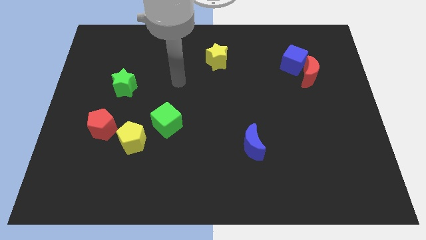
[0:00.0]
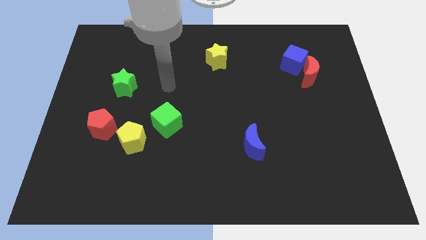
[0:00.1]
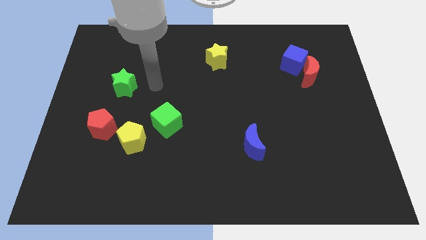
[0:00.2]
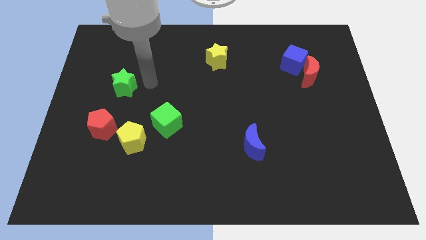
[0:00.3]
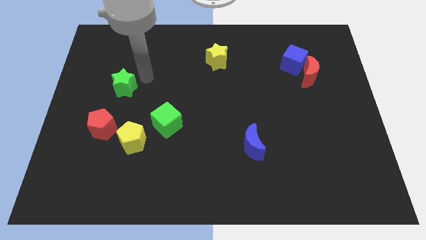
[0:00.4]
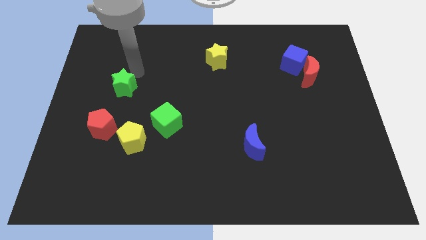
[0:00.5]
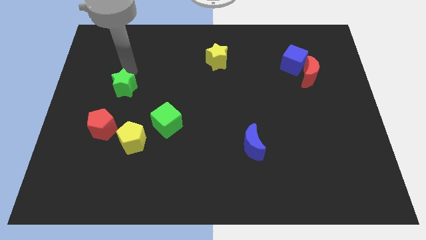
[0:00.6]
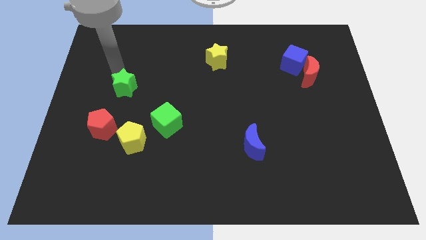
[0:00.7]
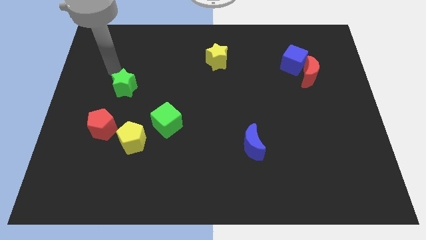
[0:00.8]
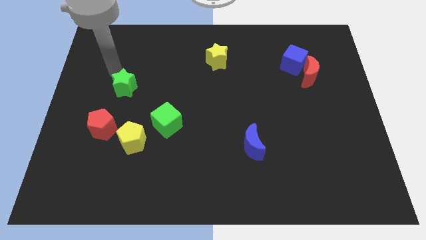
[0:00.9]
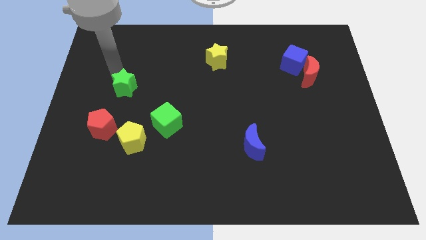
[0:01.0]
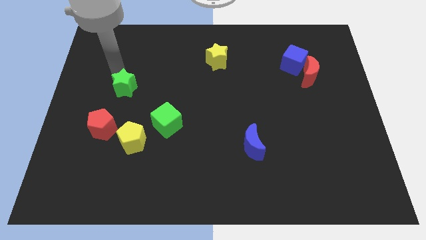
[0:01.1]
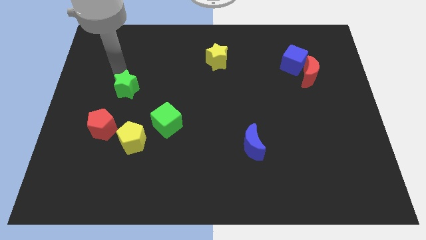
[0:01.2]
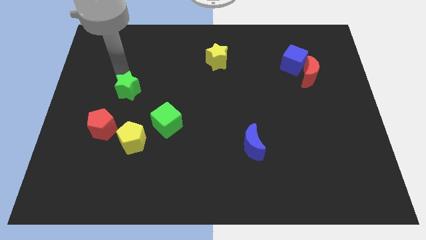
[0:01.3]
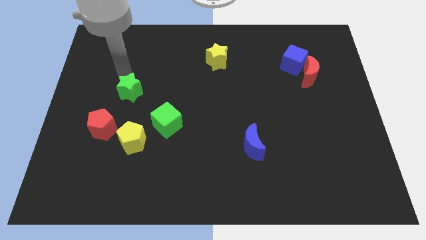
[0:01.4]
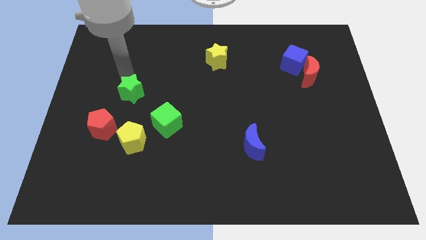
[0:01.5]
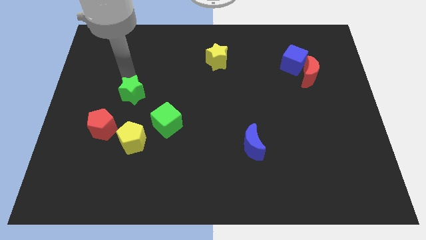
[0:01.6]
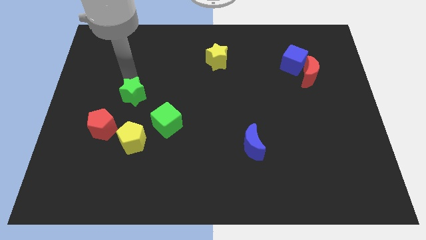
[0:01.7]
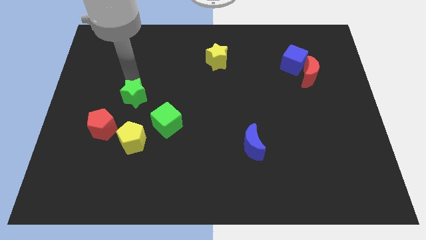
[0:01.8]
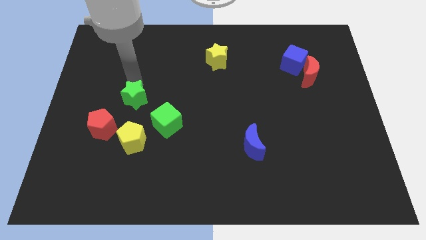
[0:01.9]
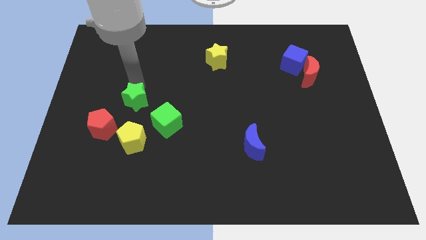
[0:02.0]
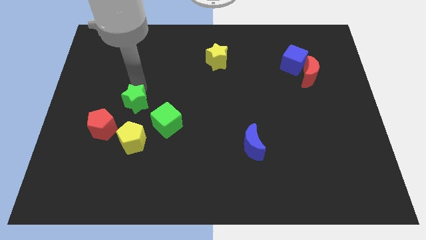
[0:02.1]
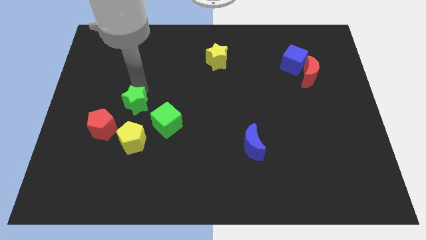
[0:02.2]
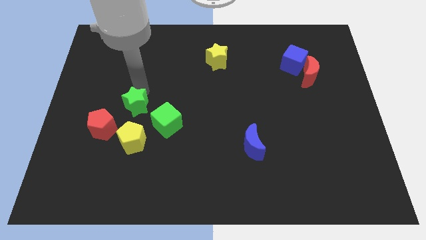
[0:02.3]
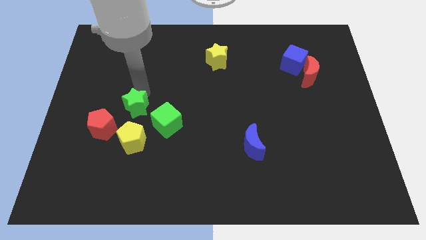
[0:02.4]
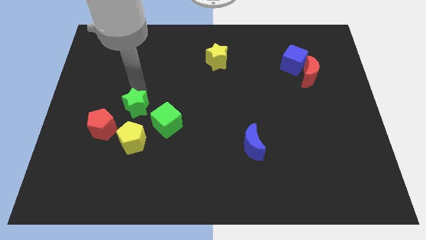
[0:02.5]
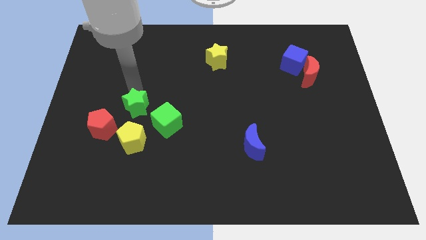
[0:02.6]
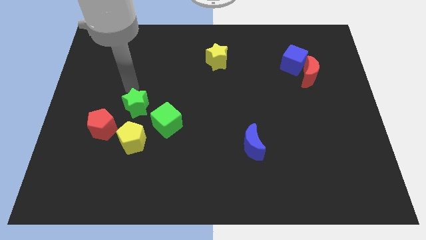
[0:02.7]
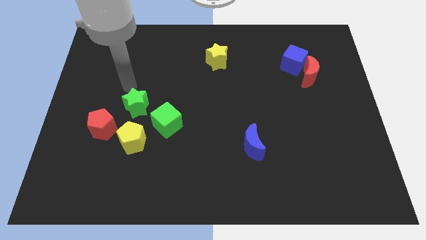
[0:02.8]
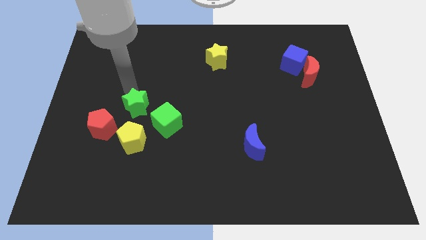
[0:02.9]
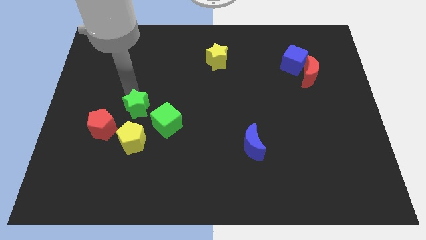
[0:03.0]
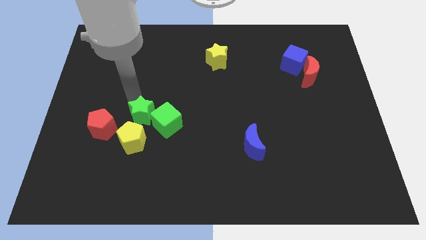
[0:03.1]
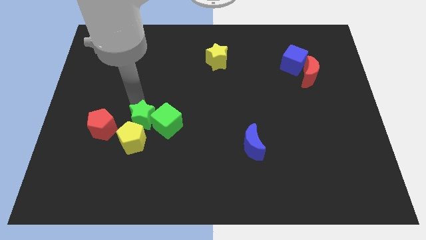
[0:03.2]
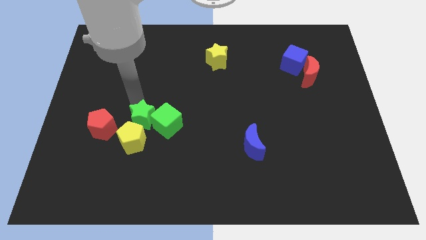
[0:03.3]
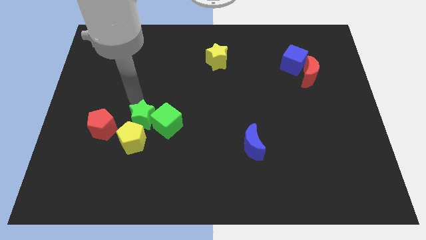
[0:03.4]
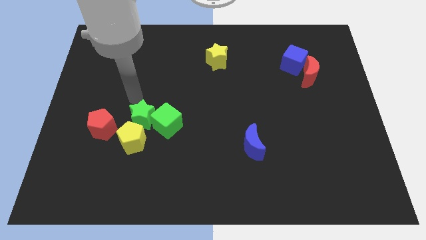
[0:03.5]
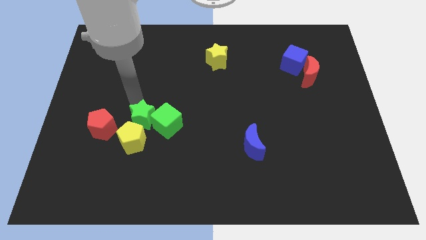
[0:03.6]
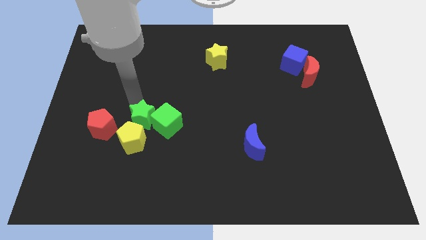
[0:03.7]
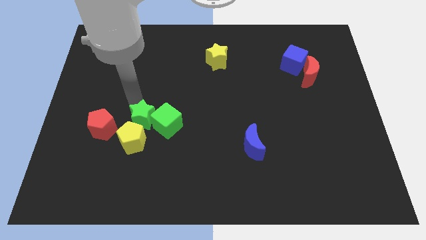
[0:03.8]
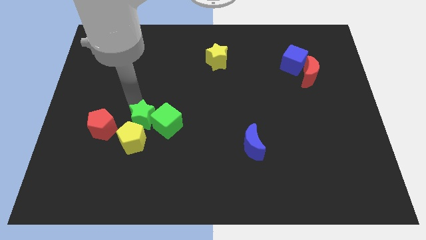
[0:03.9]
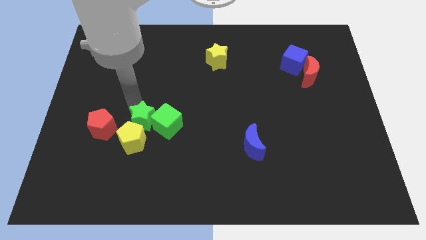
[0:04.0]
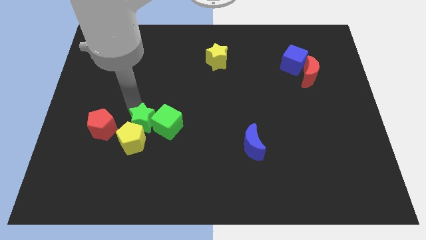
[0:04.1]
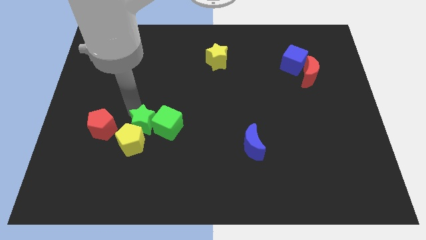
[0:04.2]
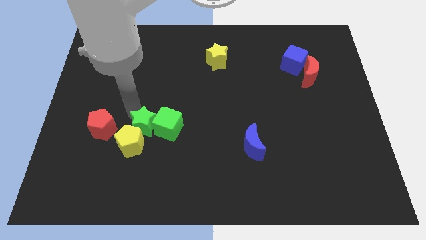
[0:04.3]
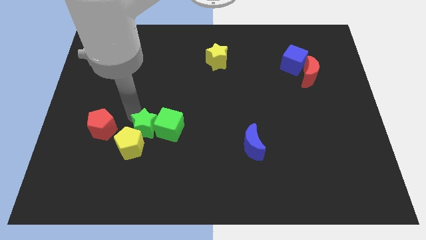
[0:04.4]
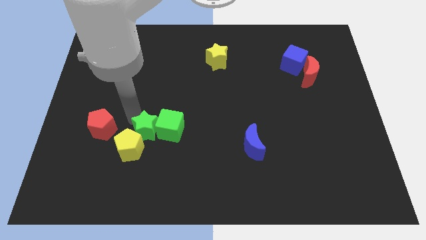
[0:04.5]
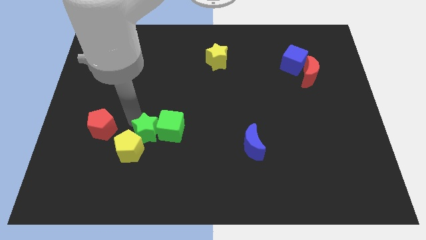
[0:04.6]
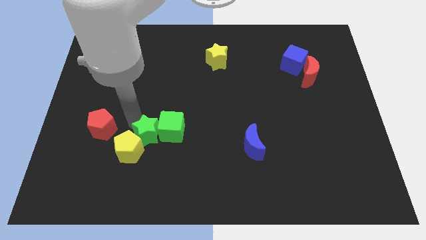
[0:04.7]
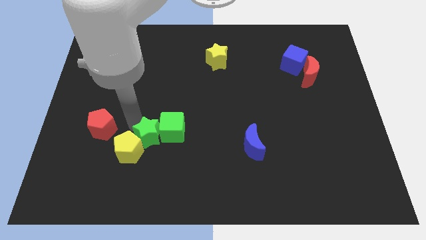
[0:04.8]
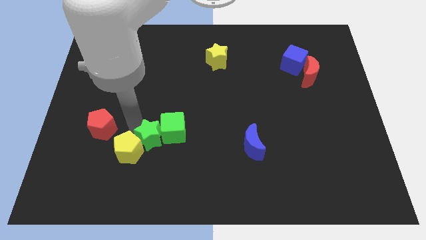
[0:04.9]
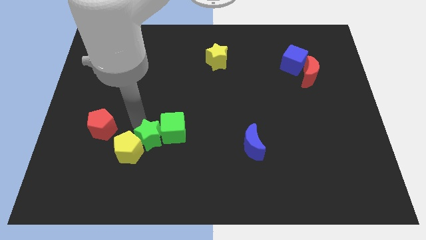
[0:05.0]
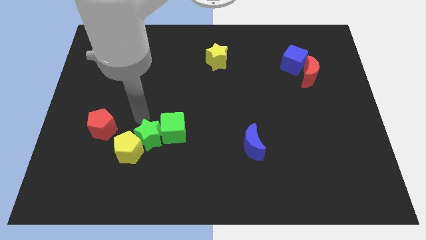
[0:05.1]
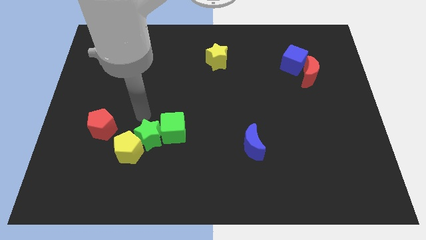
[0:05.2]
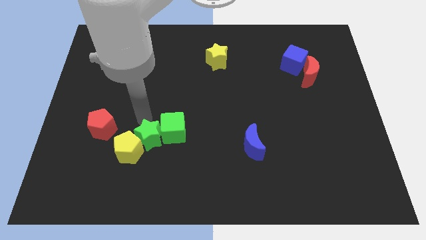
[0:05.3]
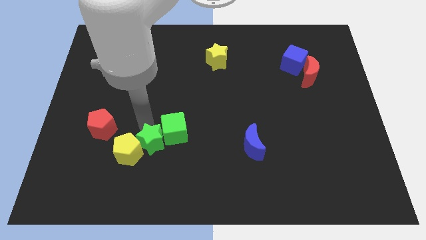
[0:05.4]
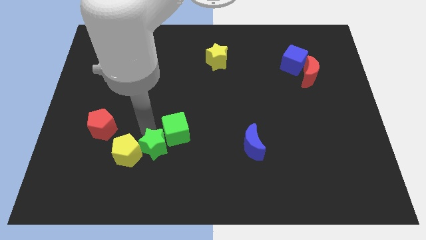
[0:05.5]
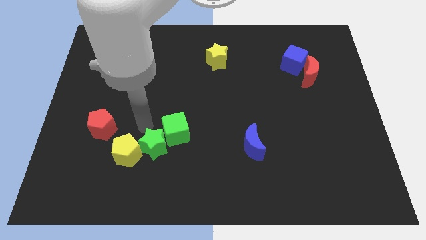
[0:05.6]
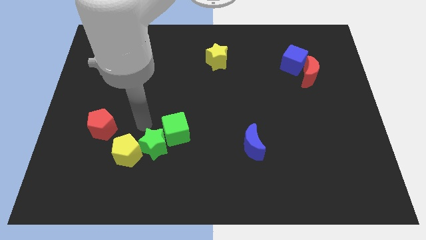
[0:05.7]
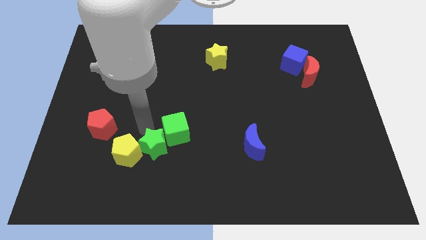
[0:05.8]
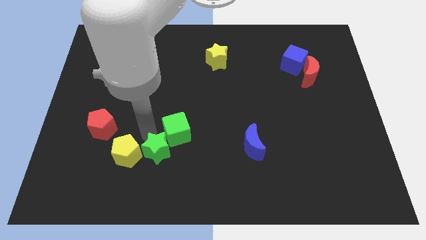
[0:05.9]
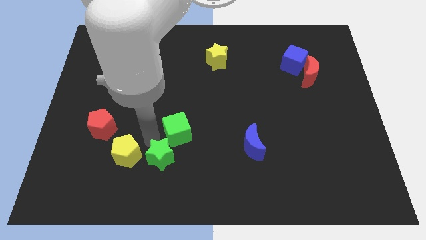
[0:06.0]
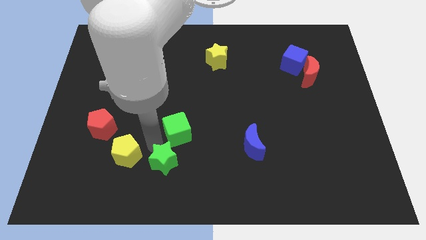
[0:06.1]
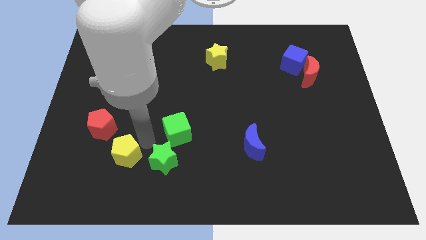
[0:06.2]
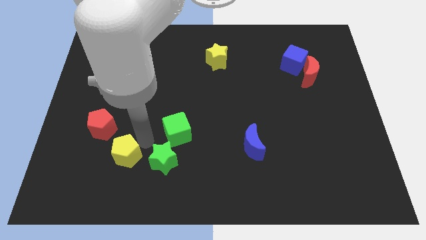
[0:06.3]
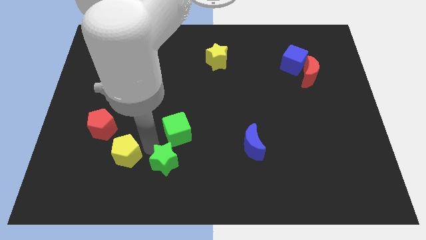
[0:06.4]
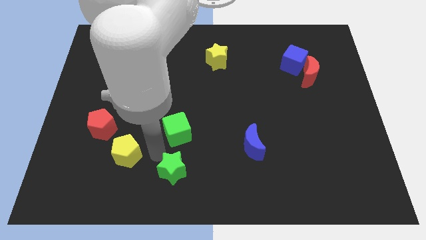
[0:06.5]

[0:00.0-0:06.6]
move the green star to the bottom
